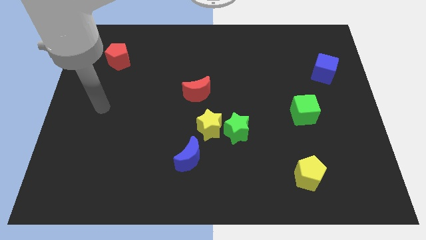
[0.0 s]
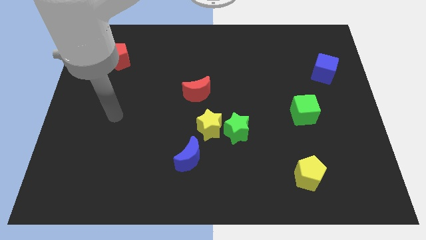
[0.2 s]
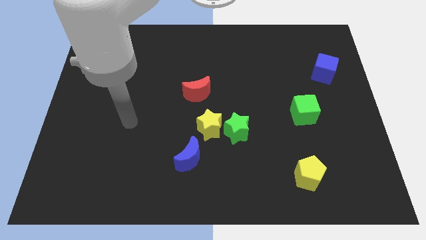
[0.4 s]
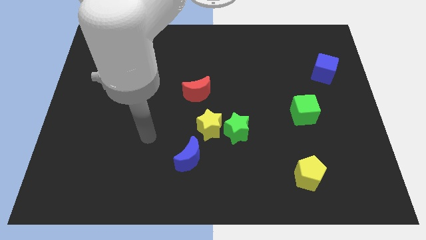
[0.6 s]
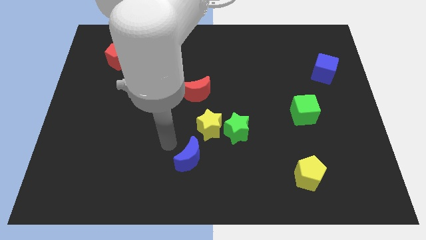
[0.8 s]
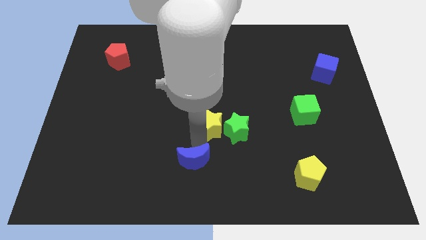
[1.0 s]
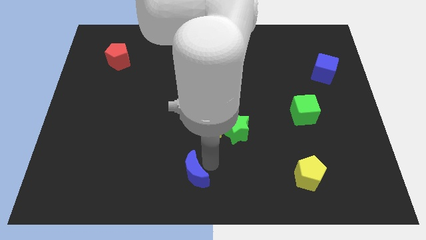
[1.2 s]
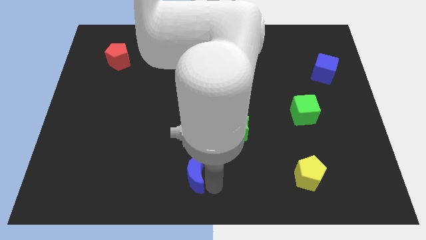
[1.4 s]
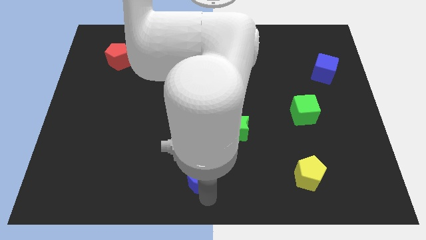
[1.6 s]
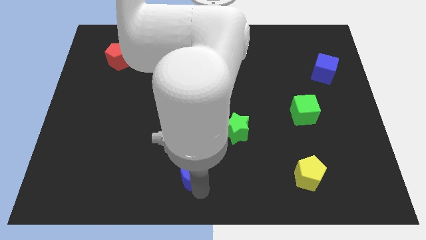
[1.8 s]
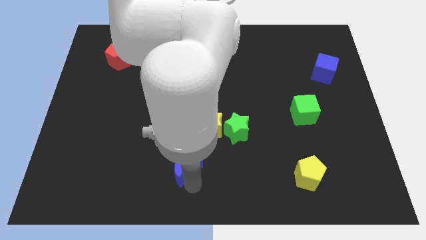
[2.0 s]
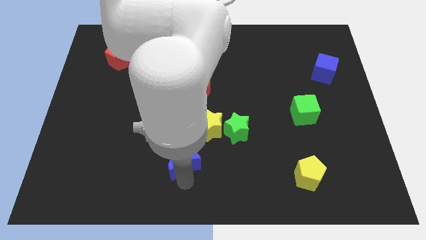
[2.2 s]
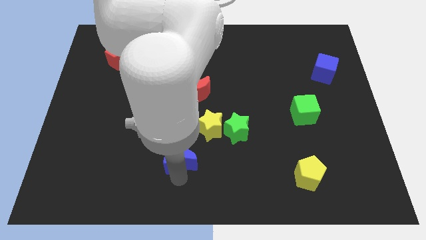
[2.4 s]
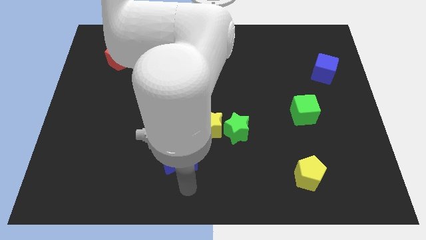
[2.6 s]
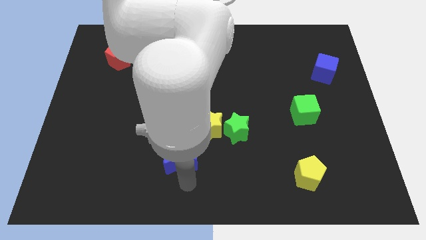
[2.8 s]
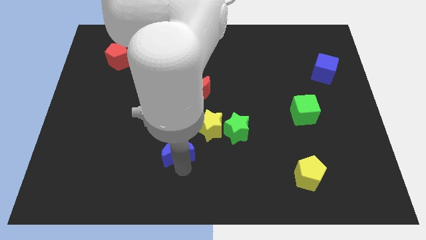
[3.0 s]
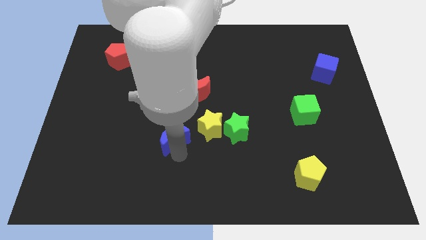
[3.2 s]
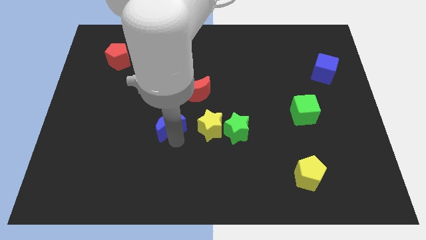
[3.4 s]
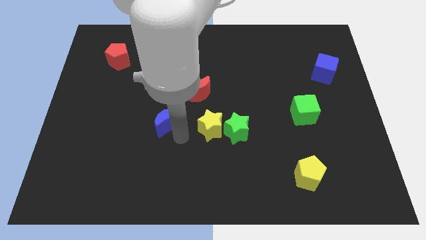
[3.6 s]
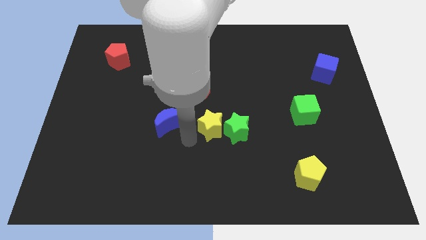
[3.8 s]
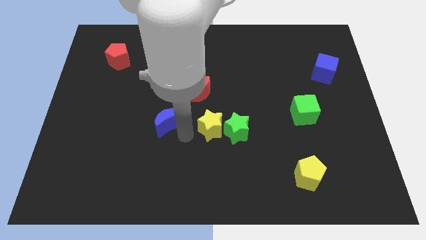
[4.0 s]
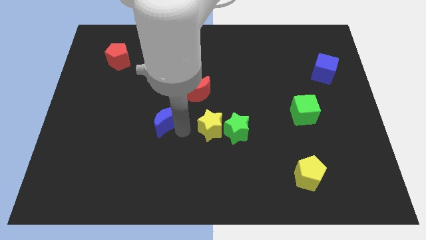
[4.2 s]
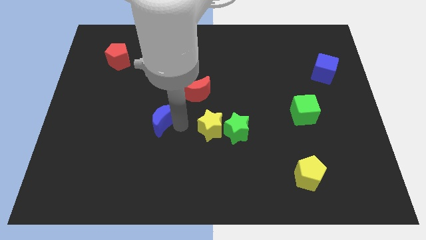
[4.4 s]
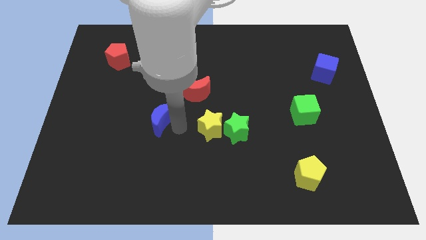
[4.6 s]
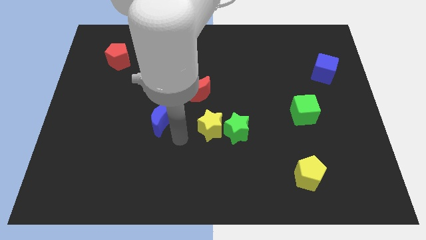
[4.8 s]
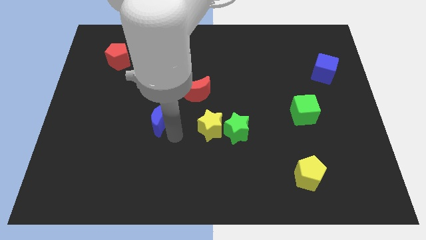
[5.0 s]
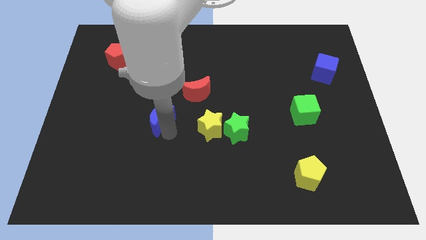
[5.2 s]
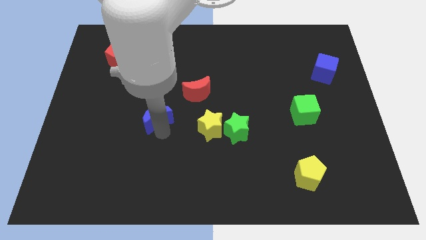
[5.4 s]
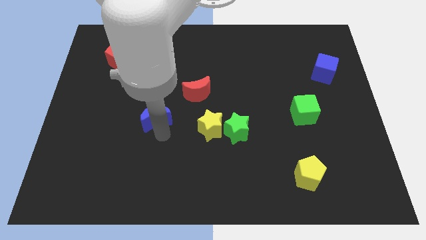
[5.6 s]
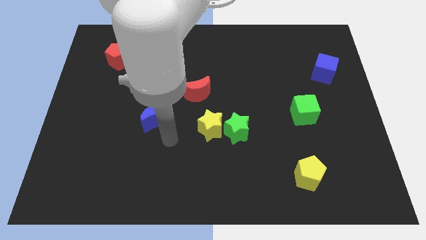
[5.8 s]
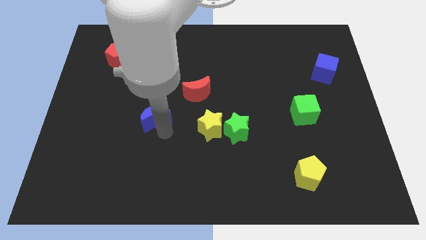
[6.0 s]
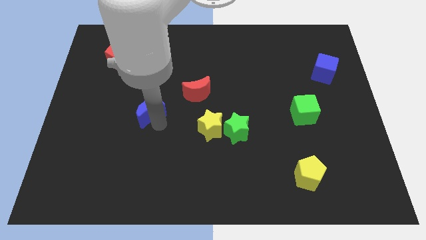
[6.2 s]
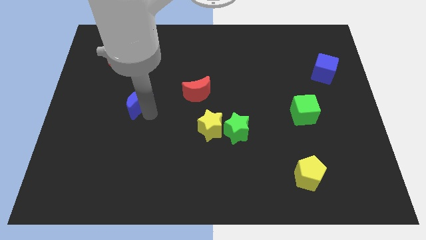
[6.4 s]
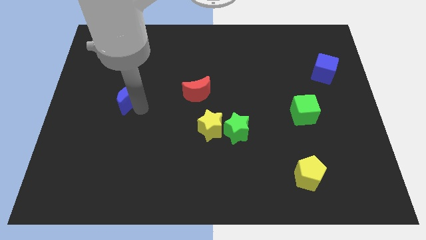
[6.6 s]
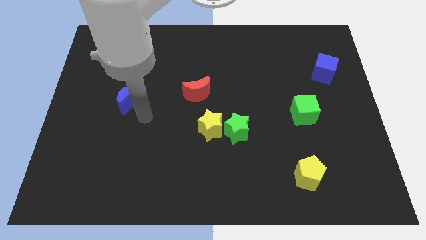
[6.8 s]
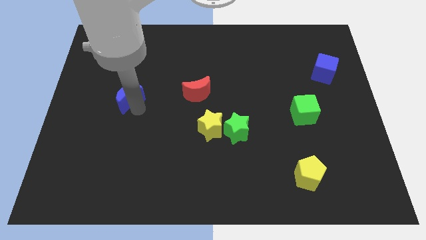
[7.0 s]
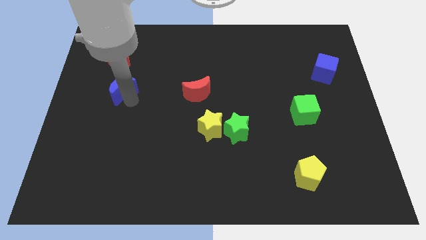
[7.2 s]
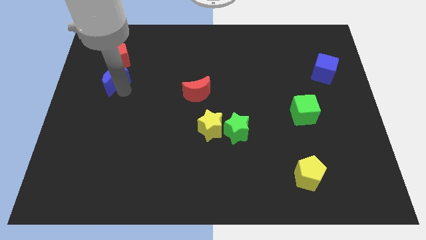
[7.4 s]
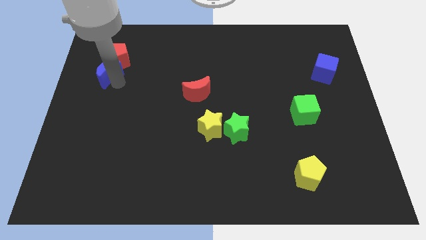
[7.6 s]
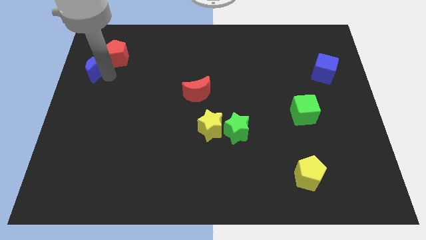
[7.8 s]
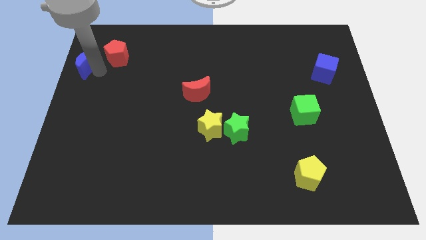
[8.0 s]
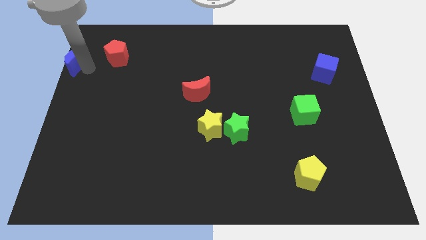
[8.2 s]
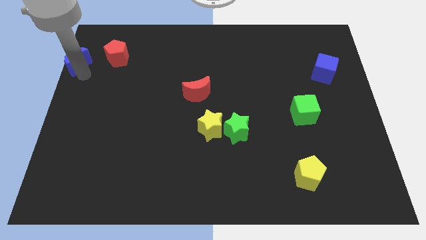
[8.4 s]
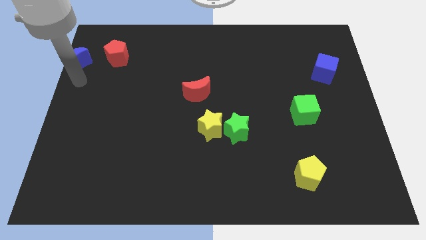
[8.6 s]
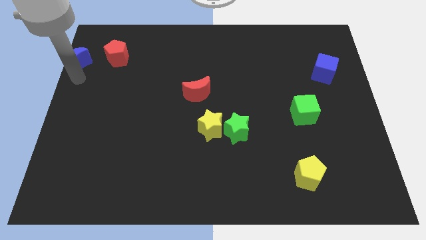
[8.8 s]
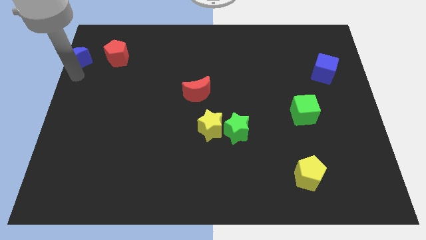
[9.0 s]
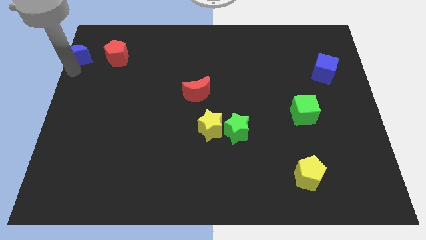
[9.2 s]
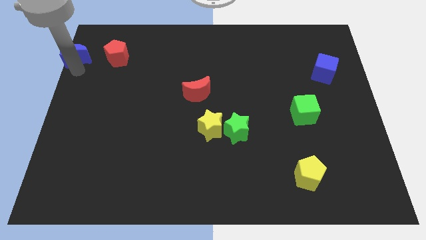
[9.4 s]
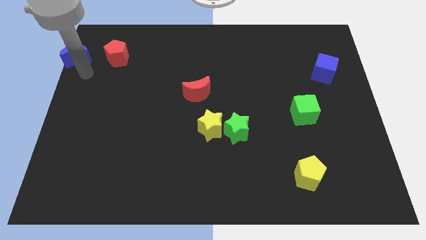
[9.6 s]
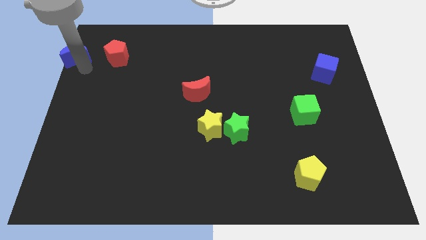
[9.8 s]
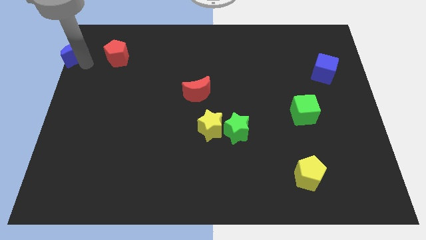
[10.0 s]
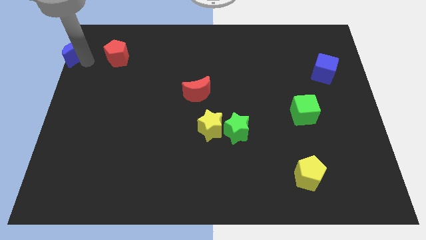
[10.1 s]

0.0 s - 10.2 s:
push the blue moon to the top left

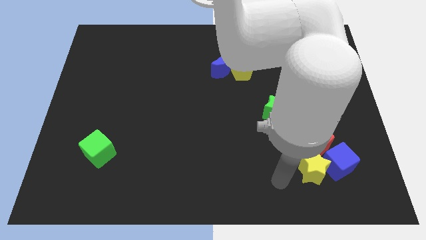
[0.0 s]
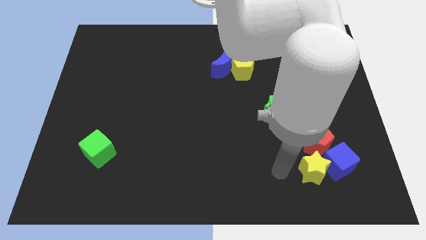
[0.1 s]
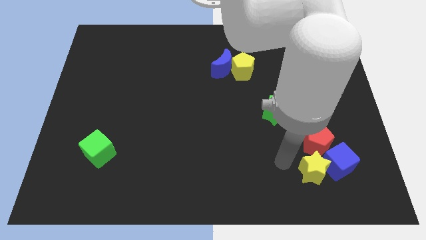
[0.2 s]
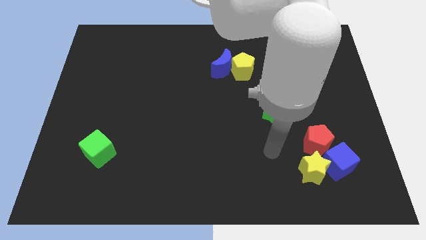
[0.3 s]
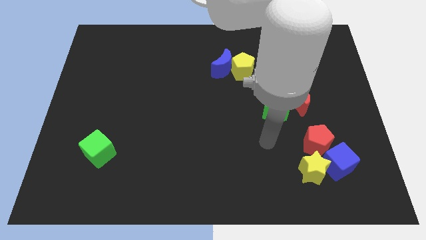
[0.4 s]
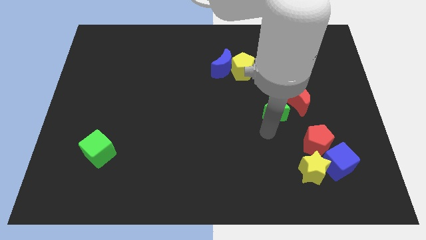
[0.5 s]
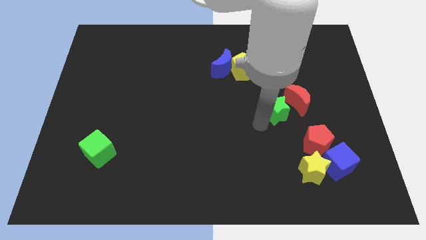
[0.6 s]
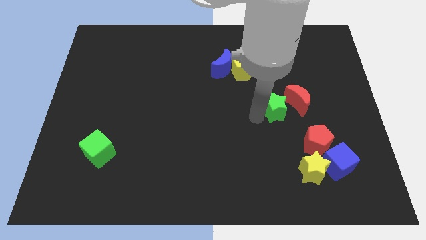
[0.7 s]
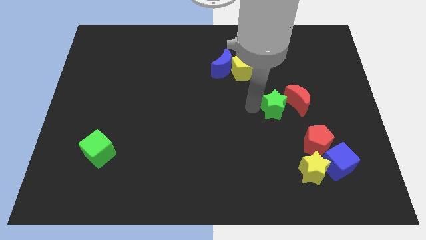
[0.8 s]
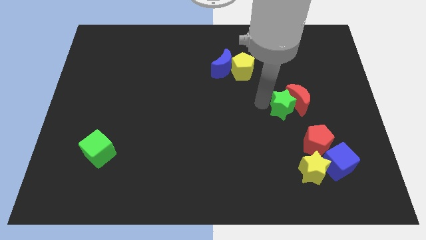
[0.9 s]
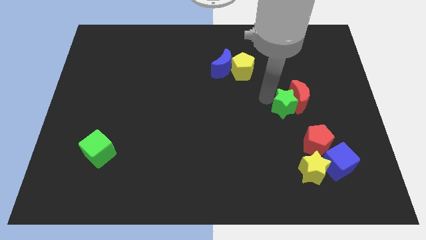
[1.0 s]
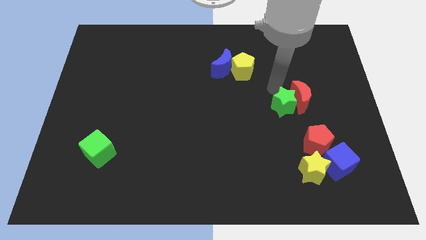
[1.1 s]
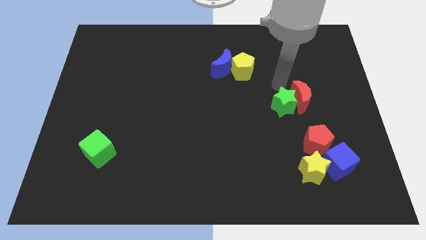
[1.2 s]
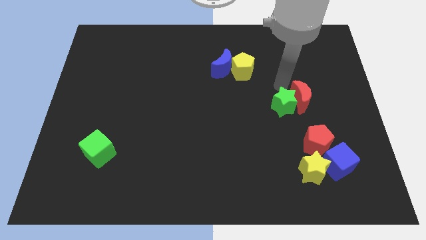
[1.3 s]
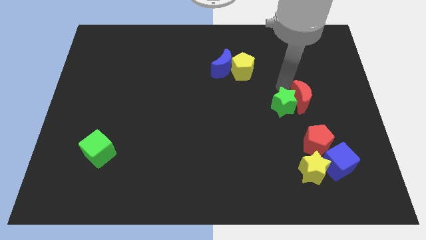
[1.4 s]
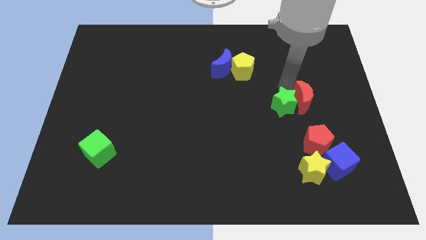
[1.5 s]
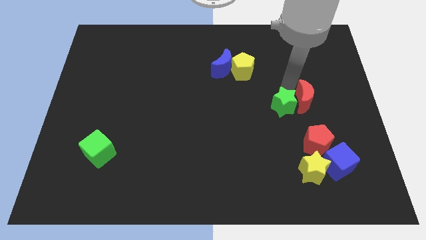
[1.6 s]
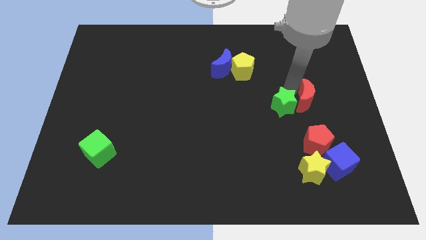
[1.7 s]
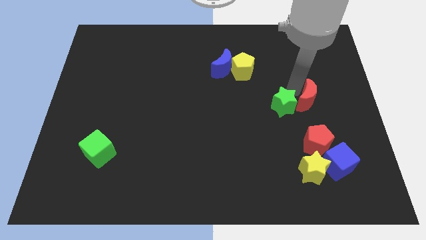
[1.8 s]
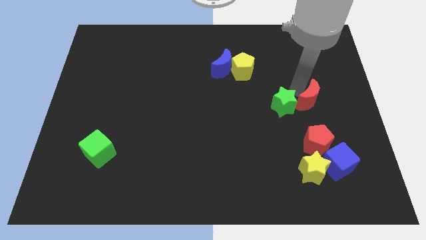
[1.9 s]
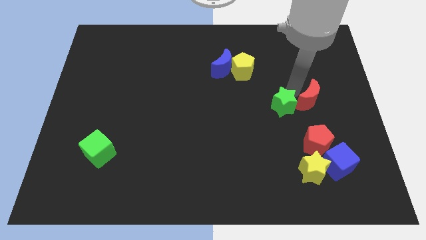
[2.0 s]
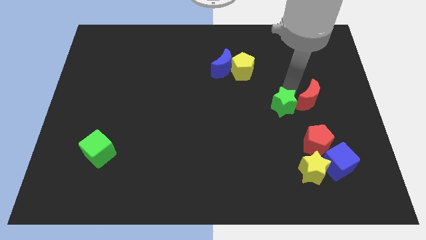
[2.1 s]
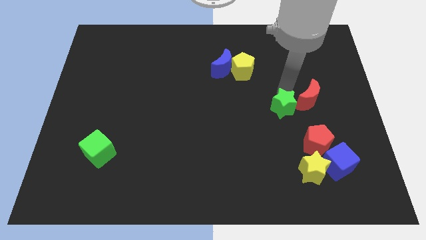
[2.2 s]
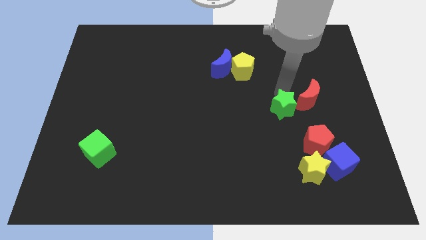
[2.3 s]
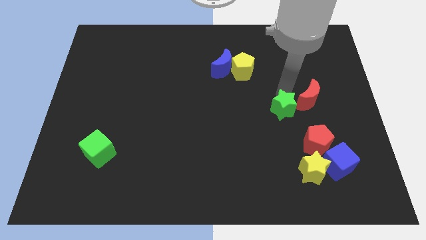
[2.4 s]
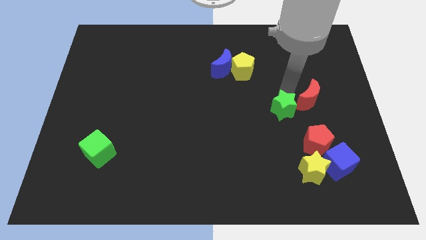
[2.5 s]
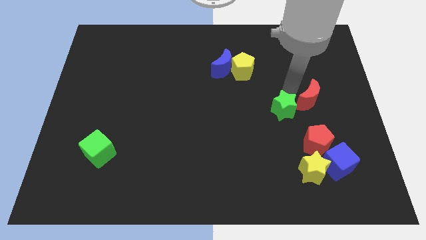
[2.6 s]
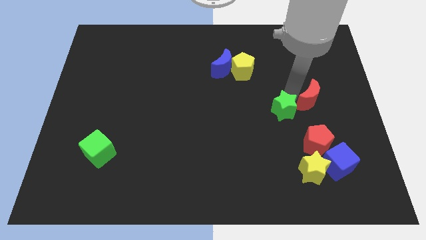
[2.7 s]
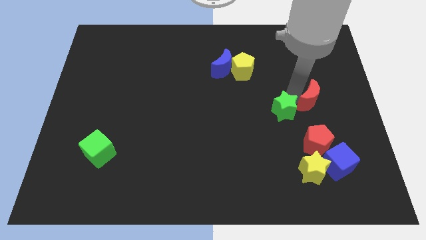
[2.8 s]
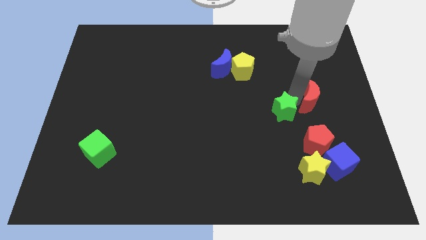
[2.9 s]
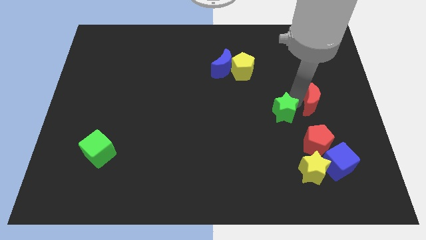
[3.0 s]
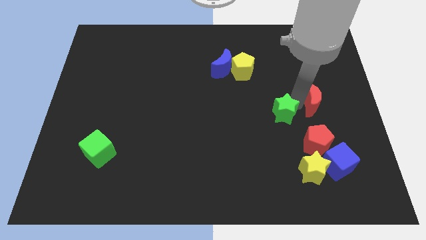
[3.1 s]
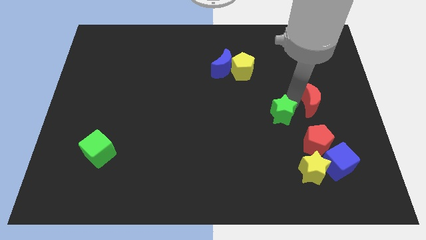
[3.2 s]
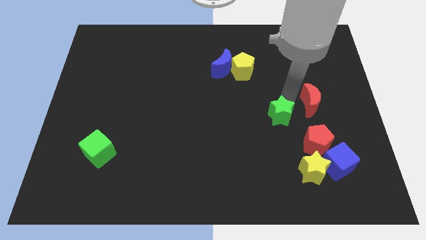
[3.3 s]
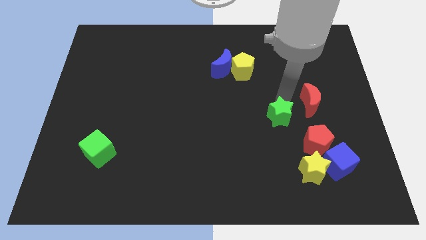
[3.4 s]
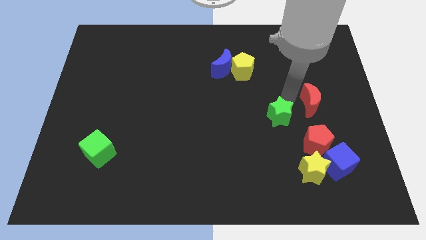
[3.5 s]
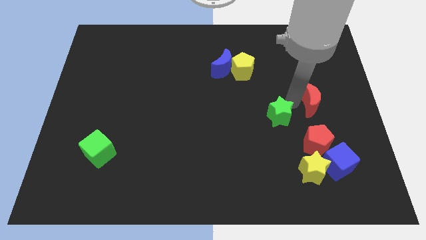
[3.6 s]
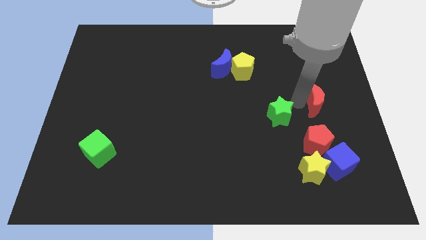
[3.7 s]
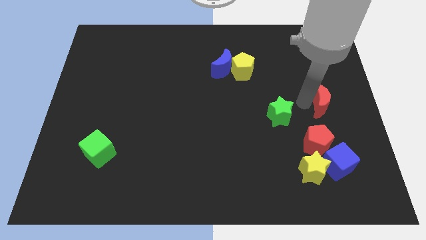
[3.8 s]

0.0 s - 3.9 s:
move the red moon to the center right
